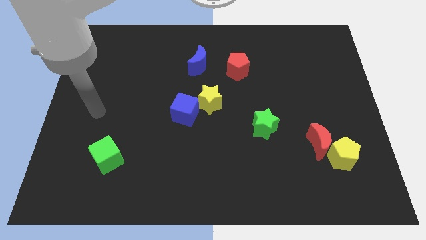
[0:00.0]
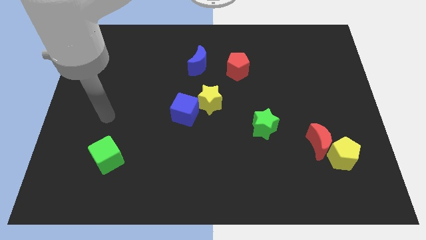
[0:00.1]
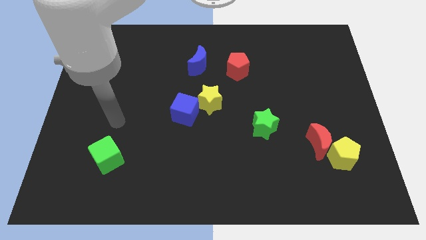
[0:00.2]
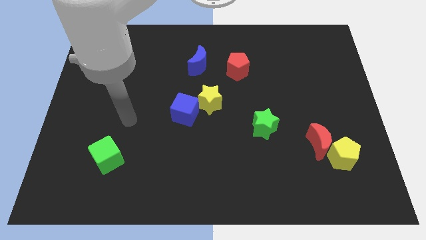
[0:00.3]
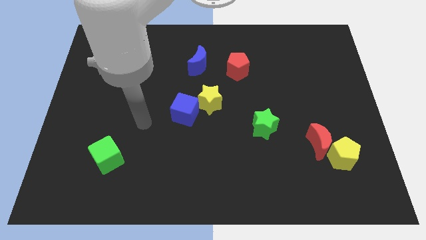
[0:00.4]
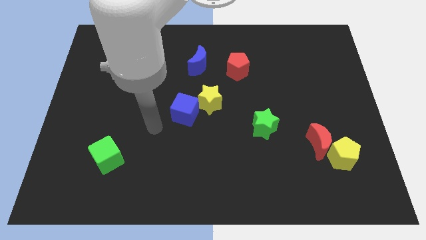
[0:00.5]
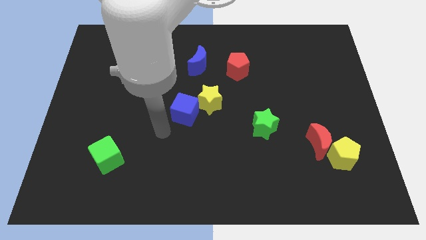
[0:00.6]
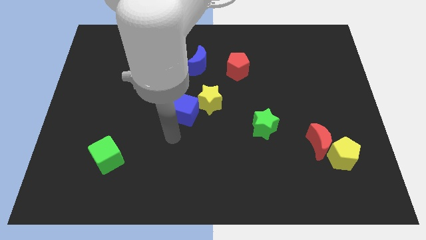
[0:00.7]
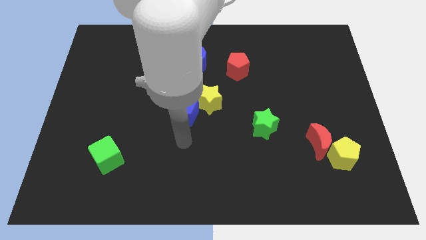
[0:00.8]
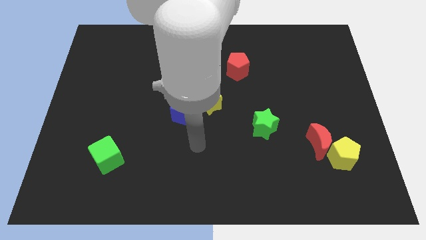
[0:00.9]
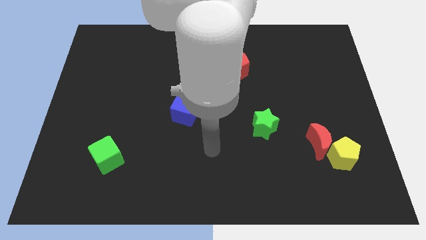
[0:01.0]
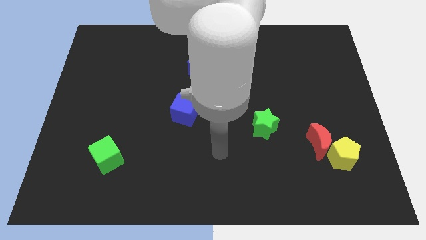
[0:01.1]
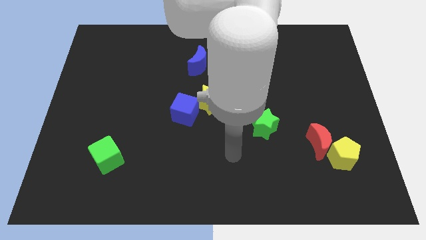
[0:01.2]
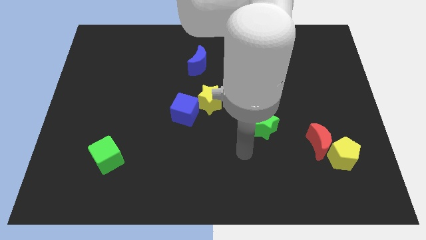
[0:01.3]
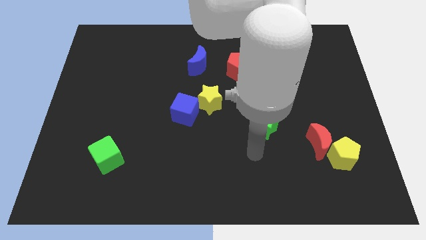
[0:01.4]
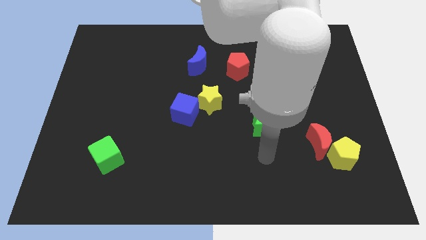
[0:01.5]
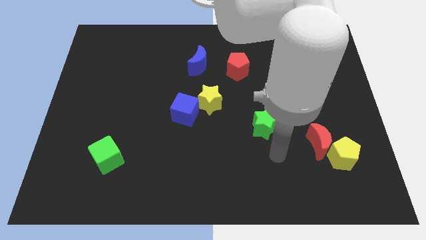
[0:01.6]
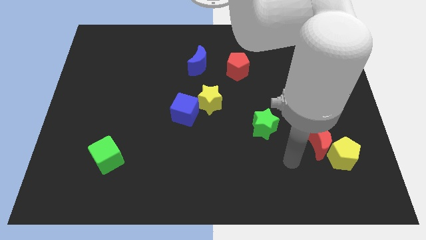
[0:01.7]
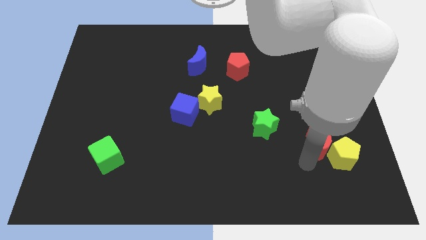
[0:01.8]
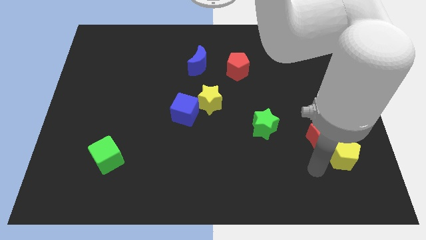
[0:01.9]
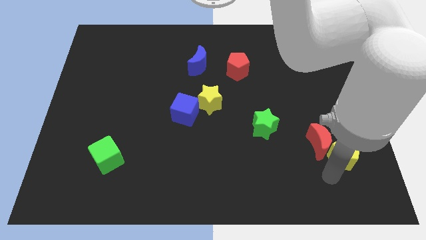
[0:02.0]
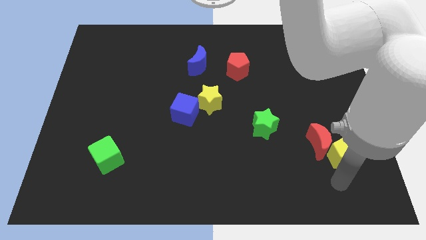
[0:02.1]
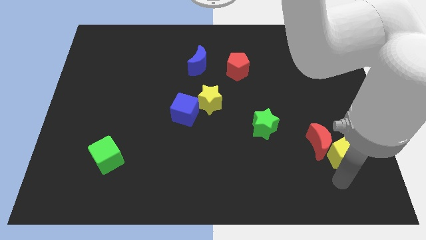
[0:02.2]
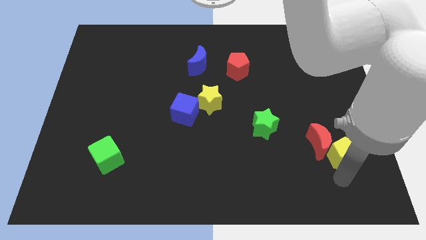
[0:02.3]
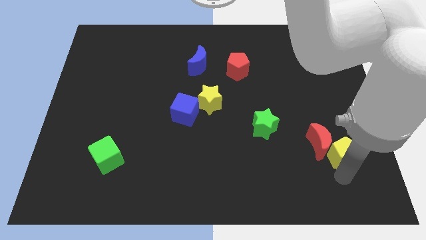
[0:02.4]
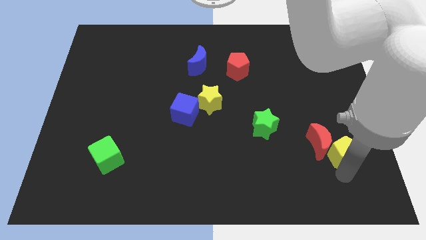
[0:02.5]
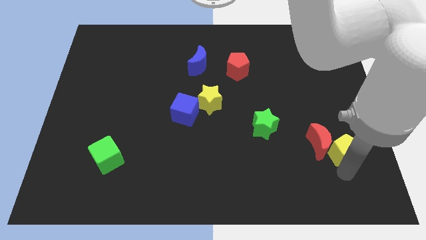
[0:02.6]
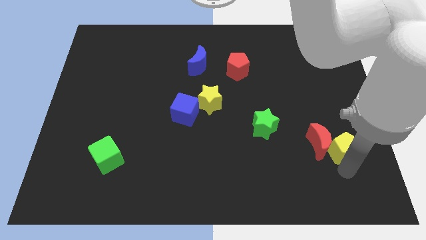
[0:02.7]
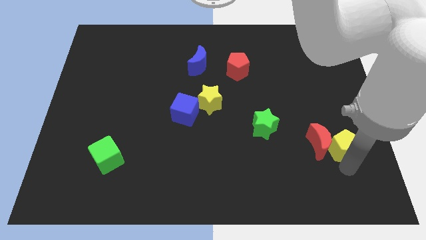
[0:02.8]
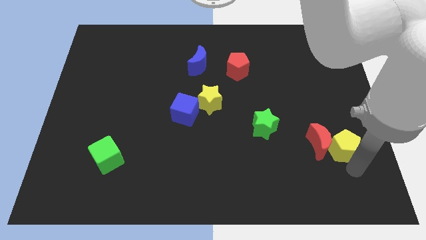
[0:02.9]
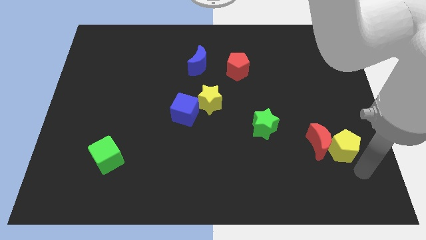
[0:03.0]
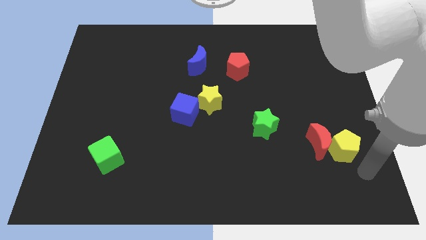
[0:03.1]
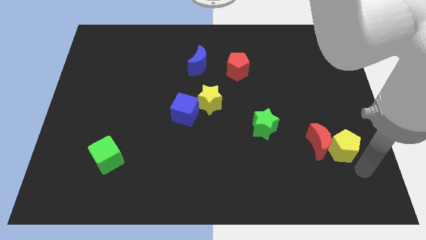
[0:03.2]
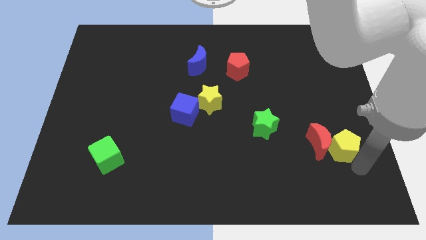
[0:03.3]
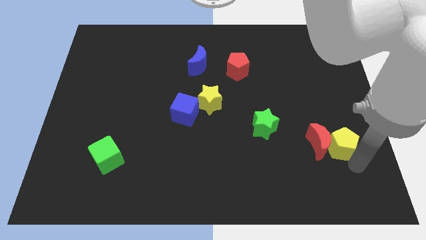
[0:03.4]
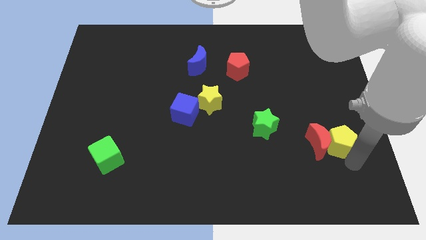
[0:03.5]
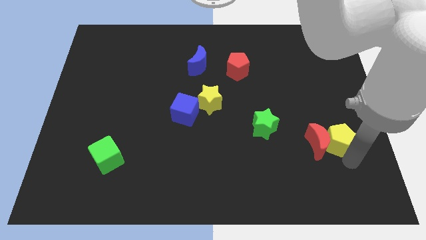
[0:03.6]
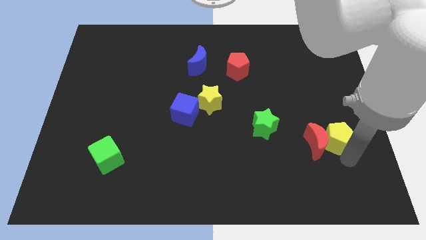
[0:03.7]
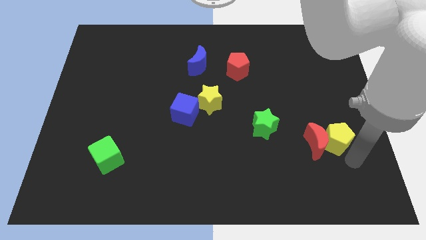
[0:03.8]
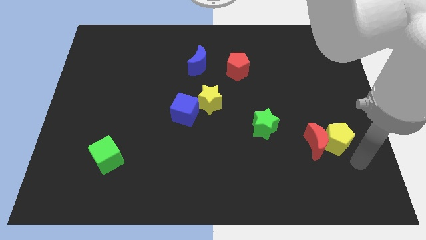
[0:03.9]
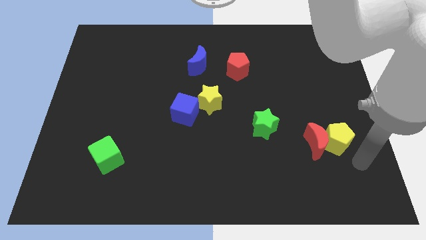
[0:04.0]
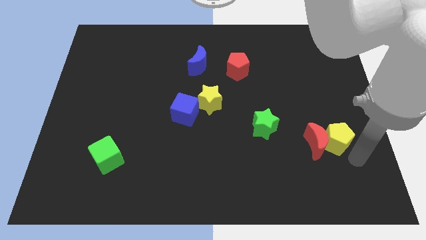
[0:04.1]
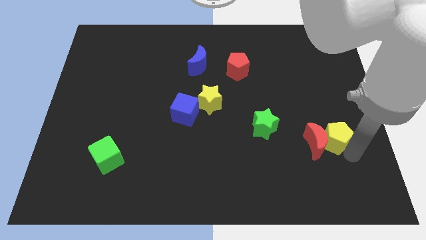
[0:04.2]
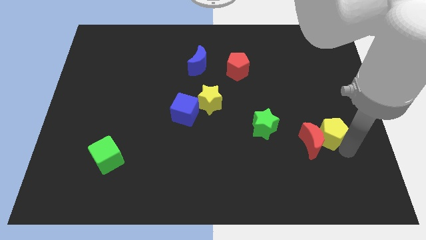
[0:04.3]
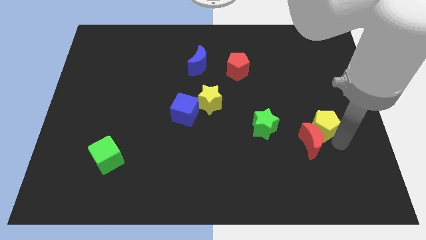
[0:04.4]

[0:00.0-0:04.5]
slide the yellow pentagon a little bit diagonally up and left

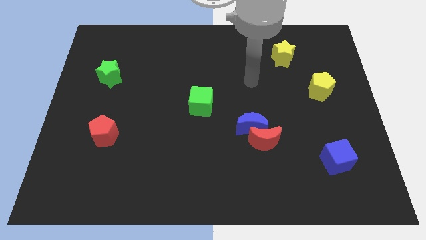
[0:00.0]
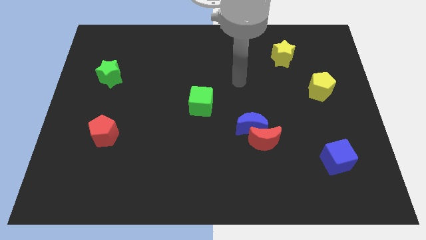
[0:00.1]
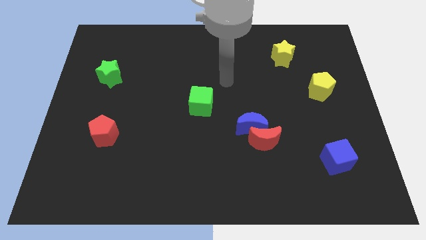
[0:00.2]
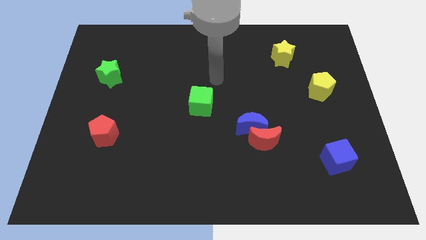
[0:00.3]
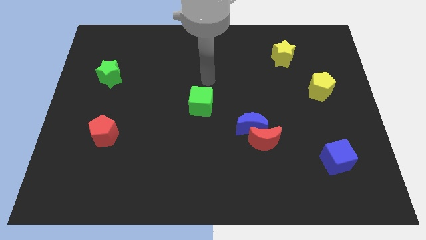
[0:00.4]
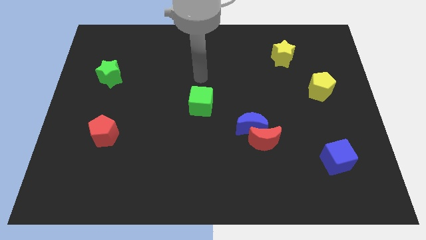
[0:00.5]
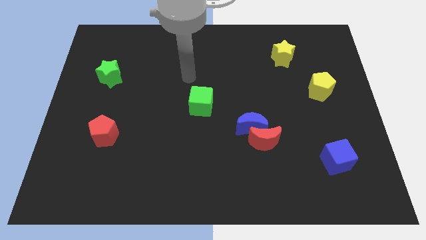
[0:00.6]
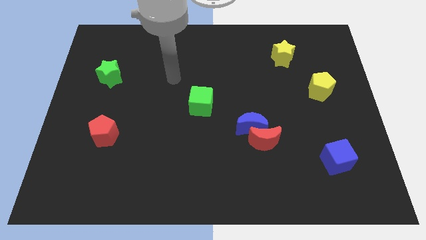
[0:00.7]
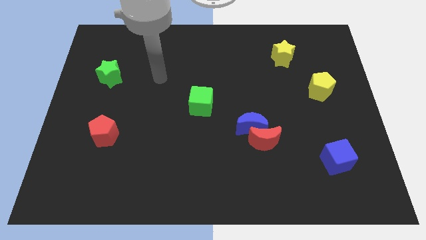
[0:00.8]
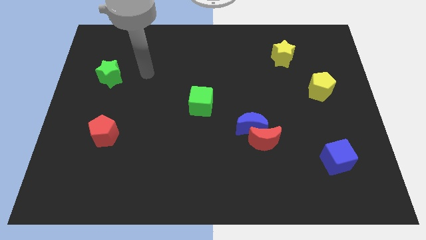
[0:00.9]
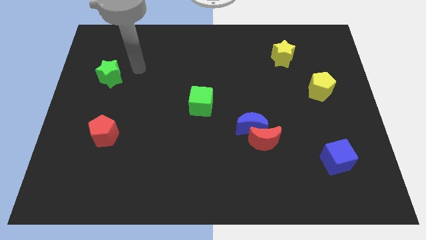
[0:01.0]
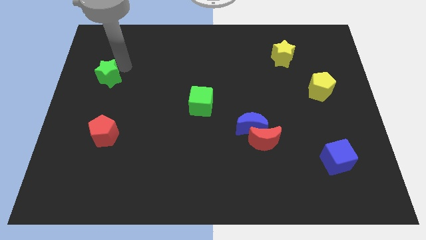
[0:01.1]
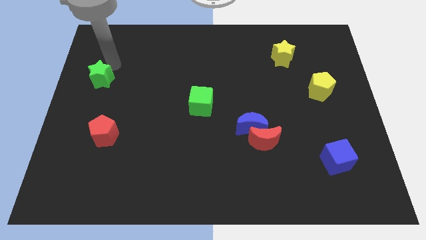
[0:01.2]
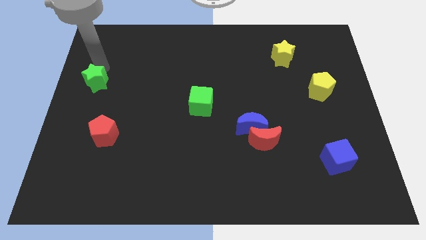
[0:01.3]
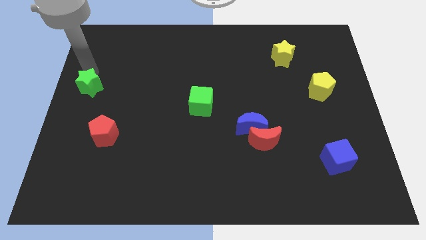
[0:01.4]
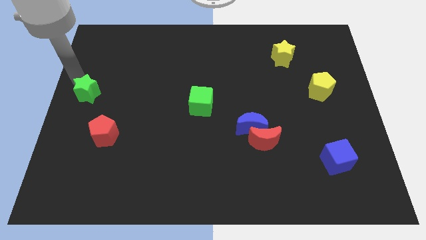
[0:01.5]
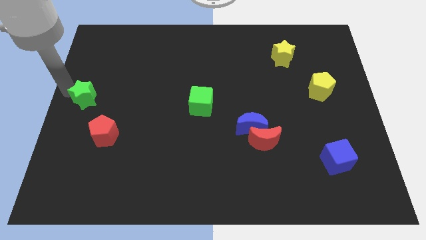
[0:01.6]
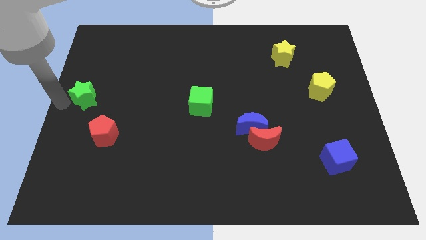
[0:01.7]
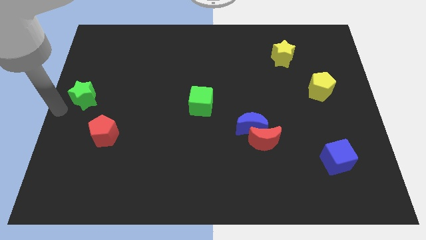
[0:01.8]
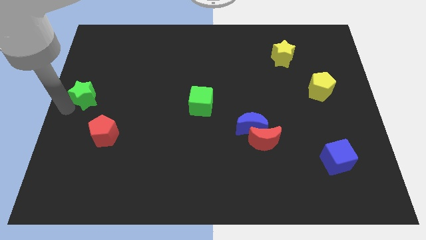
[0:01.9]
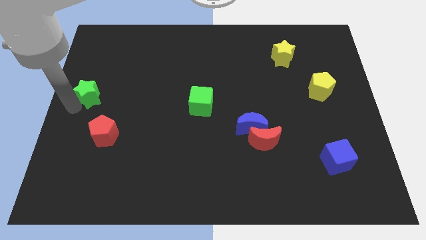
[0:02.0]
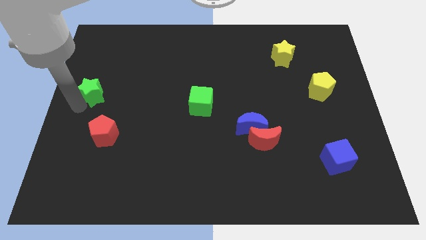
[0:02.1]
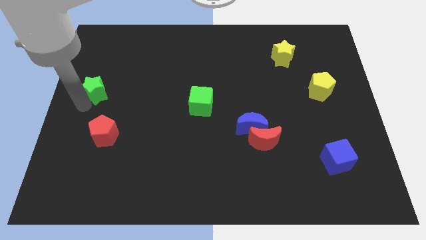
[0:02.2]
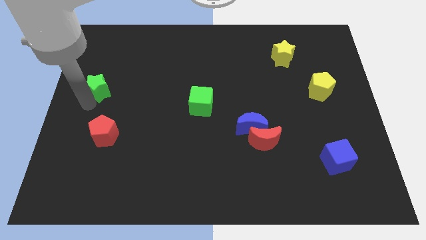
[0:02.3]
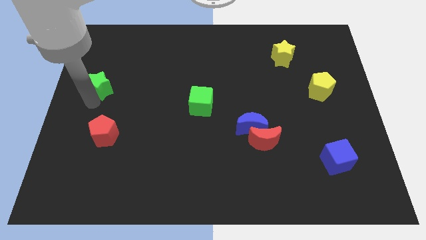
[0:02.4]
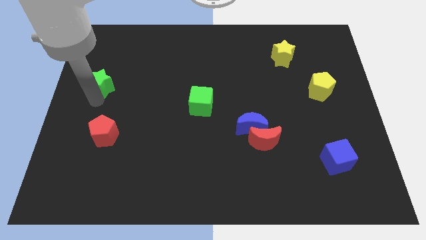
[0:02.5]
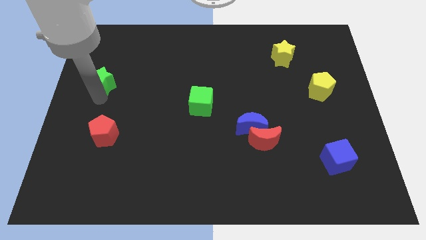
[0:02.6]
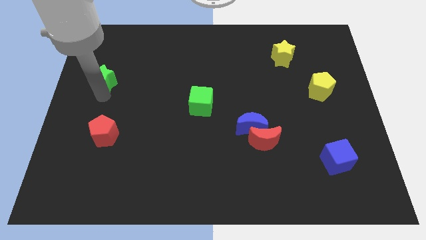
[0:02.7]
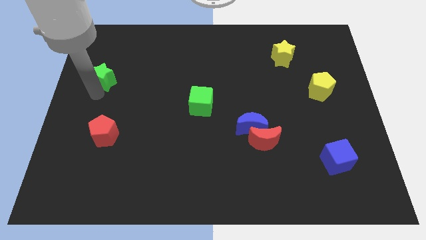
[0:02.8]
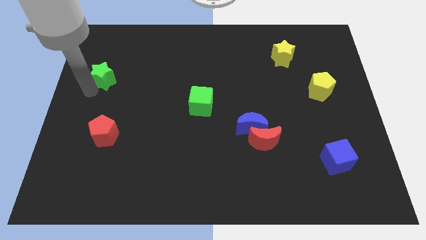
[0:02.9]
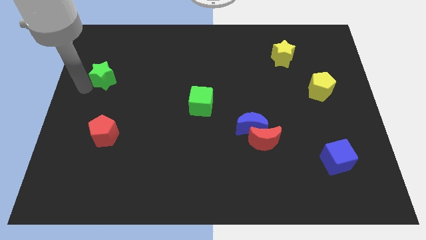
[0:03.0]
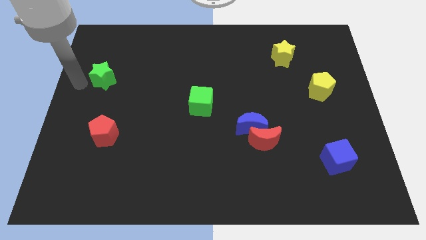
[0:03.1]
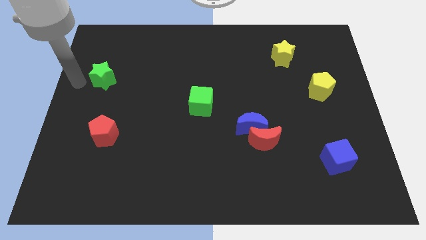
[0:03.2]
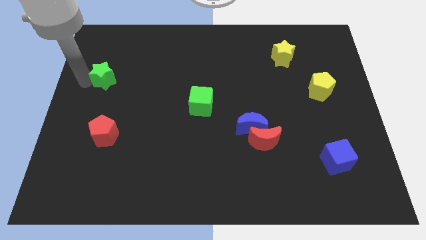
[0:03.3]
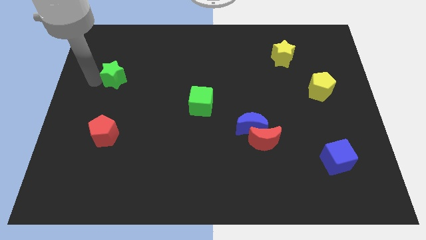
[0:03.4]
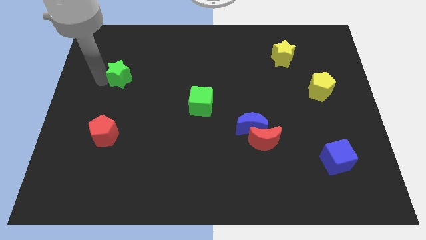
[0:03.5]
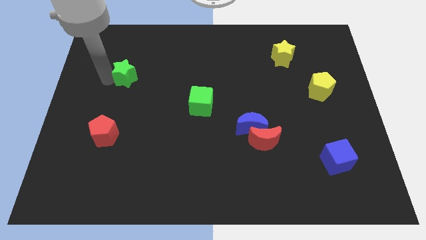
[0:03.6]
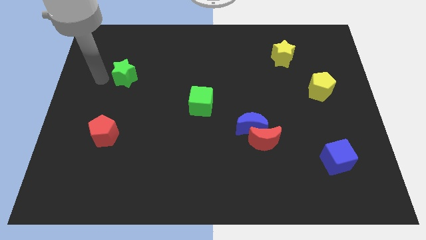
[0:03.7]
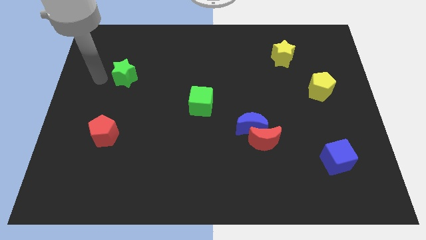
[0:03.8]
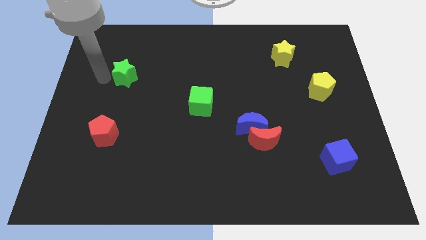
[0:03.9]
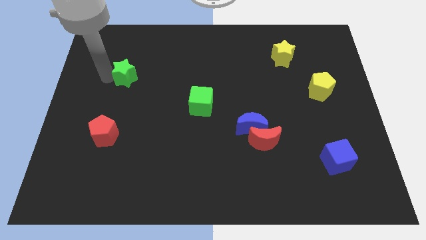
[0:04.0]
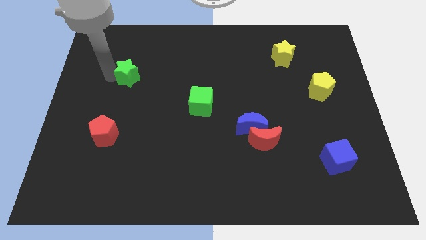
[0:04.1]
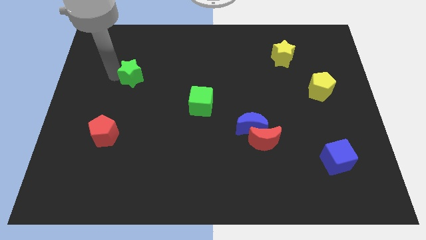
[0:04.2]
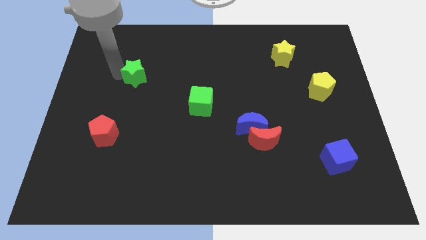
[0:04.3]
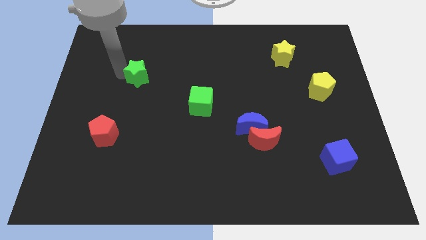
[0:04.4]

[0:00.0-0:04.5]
slightly slide the green star to the right
